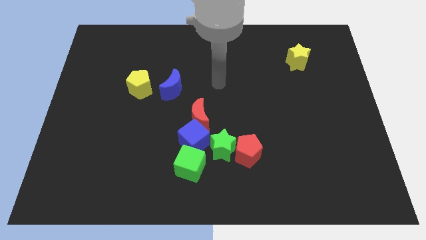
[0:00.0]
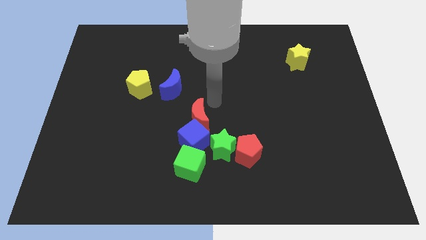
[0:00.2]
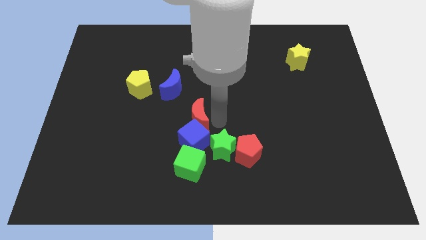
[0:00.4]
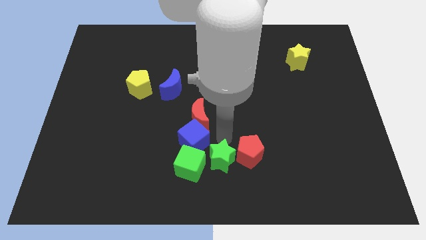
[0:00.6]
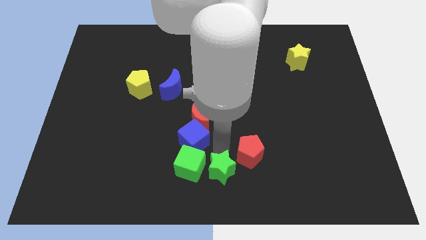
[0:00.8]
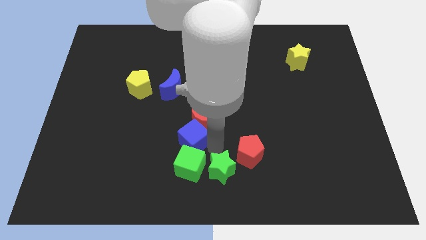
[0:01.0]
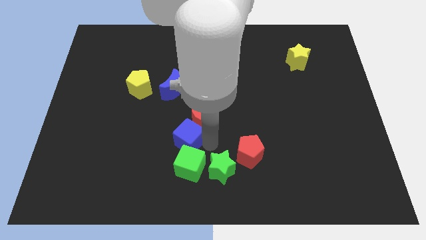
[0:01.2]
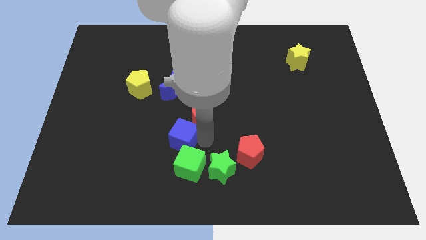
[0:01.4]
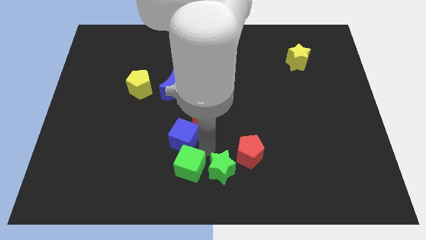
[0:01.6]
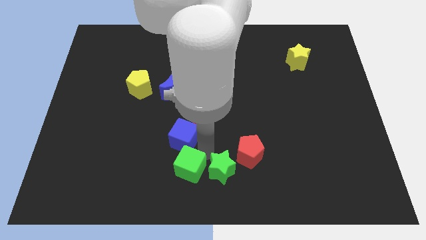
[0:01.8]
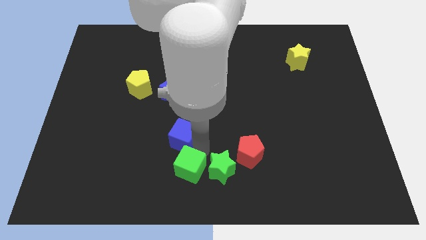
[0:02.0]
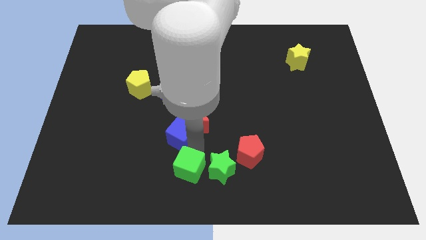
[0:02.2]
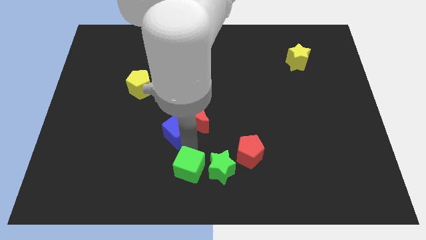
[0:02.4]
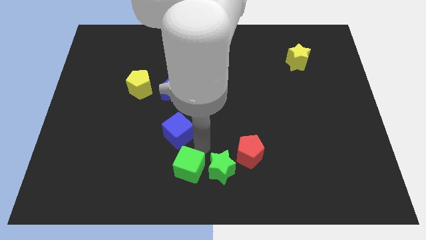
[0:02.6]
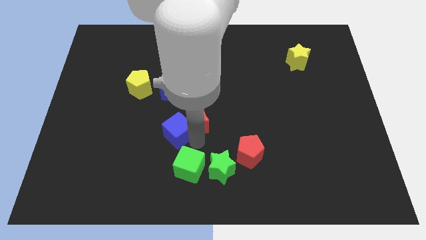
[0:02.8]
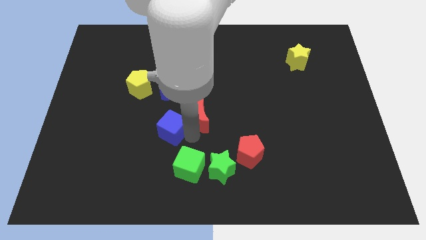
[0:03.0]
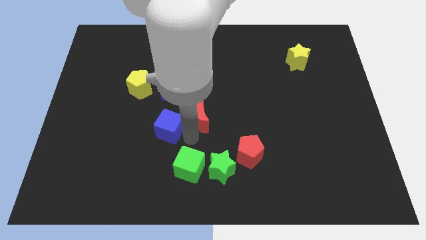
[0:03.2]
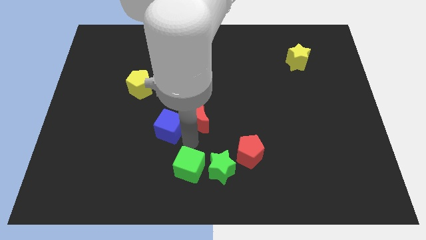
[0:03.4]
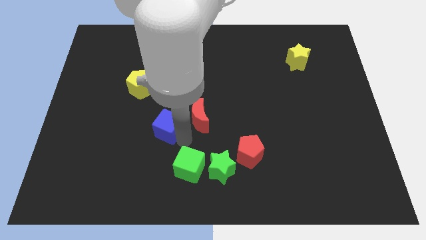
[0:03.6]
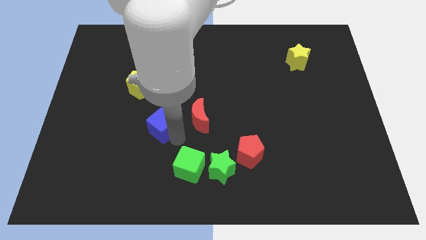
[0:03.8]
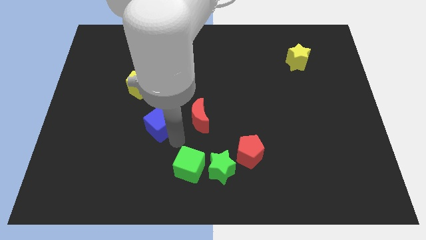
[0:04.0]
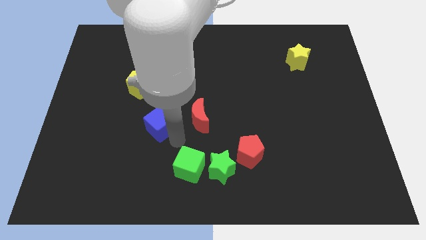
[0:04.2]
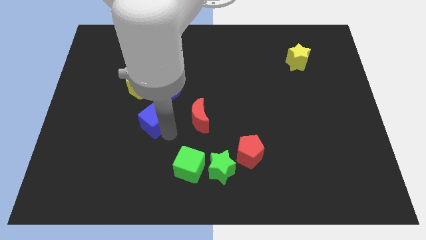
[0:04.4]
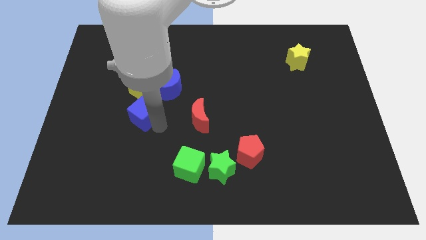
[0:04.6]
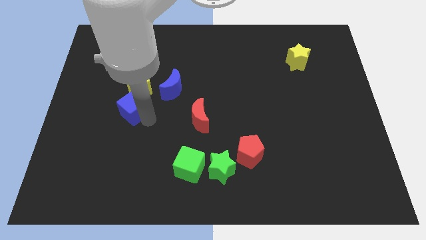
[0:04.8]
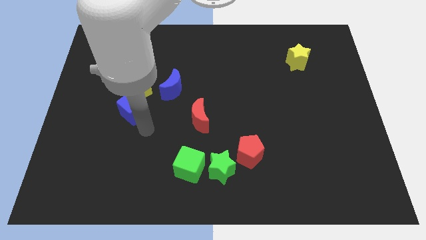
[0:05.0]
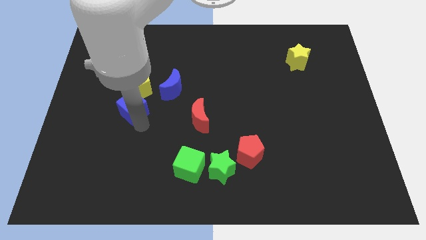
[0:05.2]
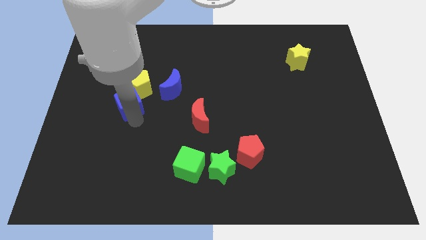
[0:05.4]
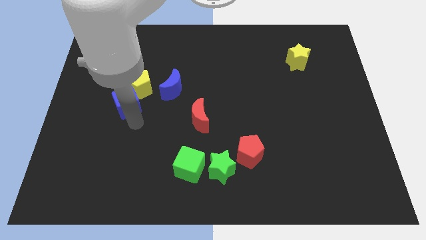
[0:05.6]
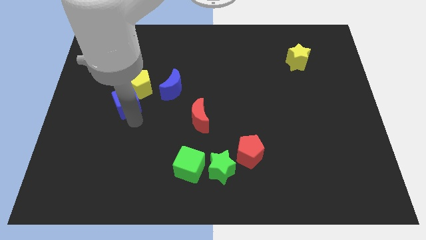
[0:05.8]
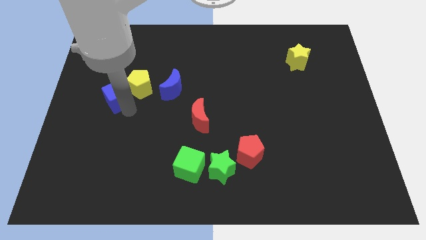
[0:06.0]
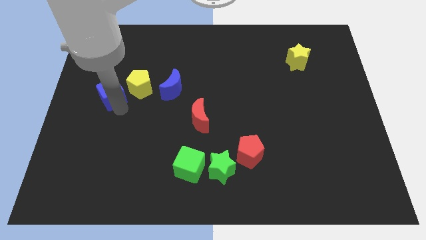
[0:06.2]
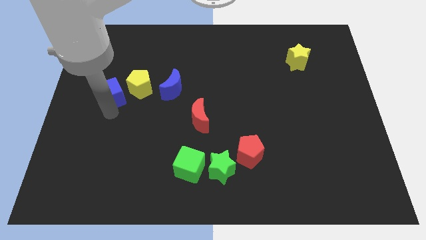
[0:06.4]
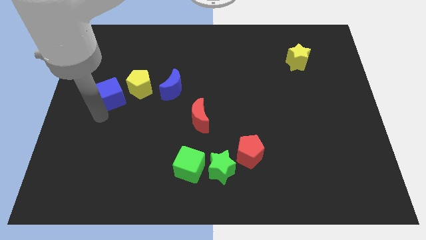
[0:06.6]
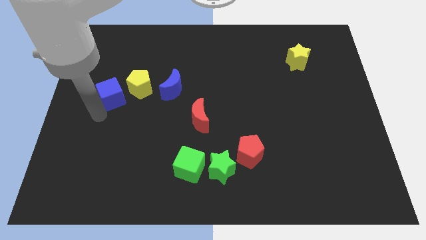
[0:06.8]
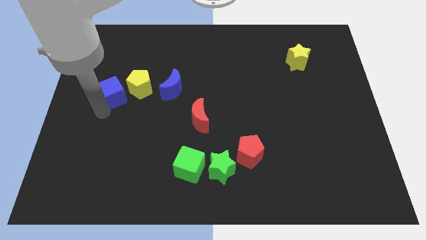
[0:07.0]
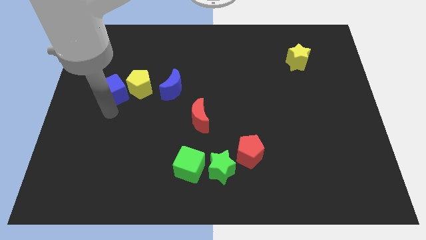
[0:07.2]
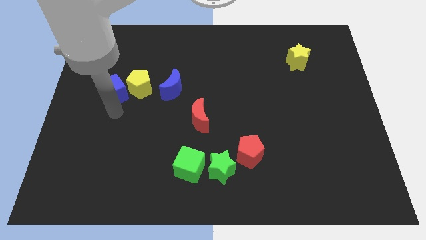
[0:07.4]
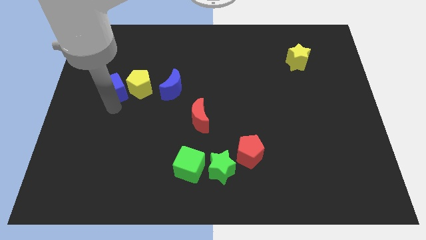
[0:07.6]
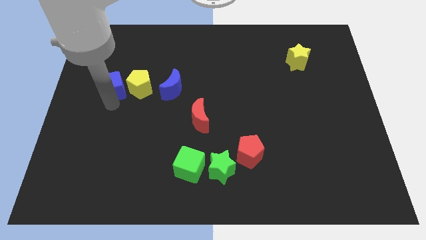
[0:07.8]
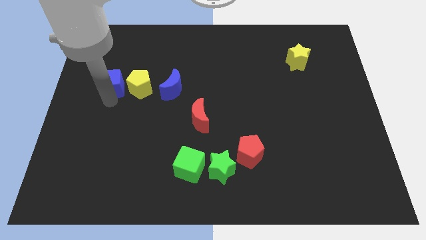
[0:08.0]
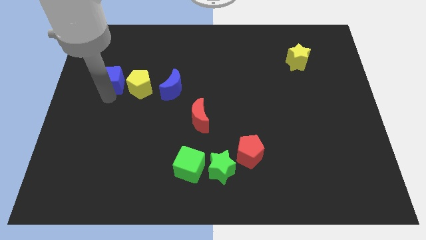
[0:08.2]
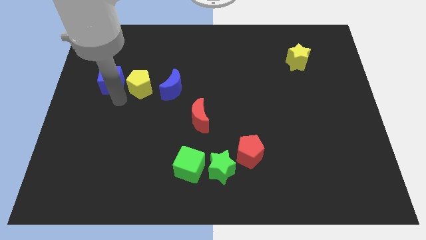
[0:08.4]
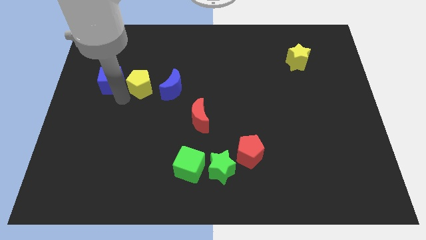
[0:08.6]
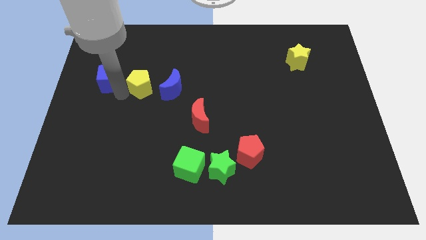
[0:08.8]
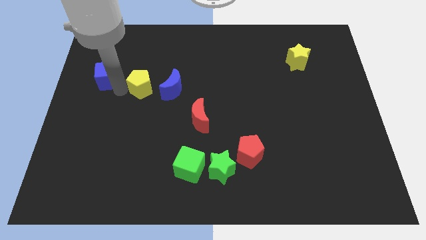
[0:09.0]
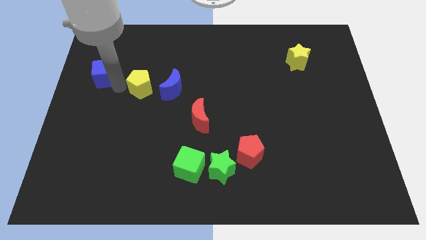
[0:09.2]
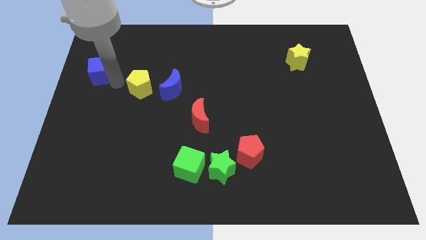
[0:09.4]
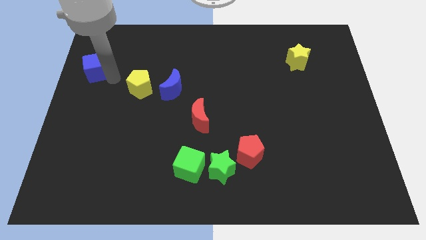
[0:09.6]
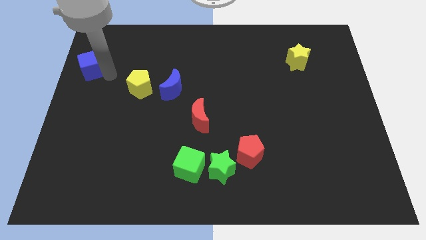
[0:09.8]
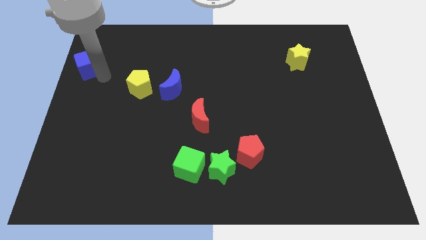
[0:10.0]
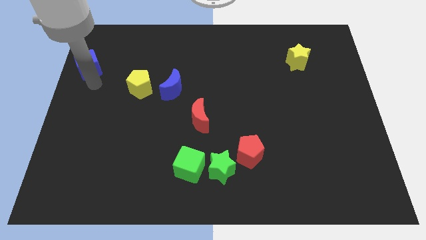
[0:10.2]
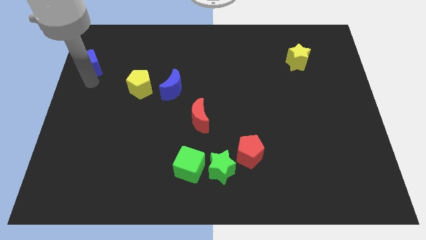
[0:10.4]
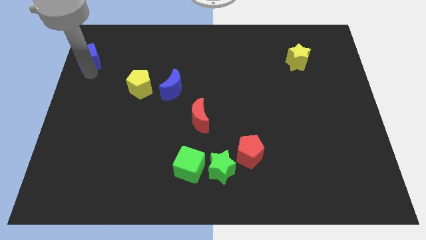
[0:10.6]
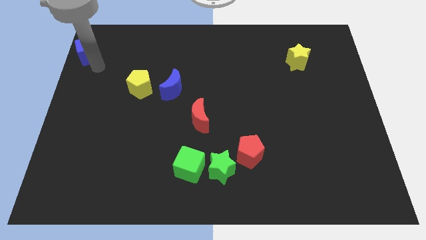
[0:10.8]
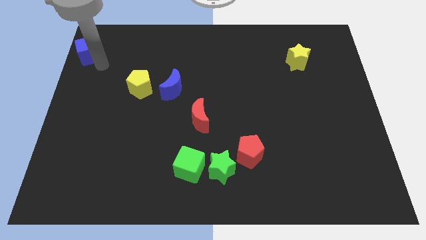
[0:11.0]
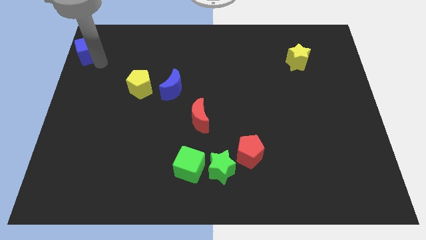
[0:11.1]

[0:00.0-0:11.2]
slide the blue cube to the top left of the board

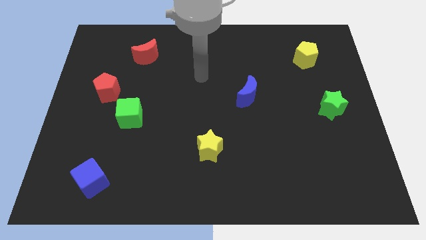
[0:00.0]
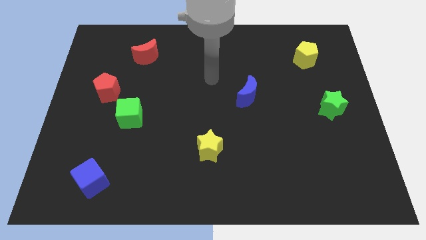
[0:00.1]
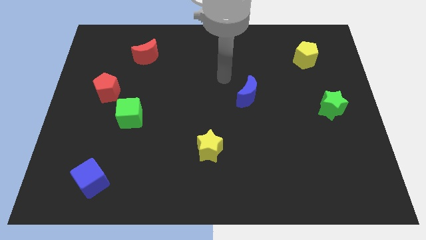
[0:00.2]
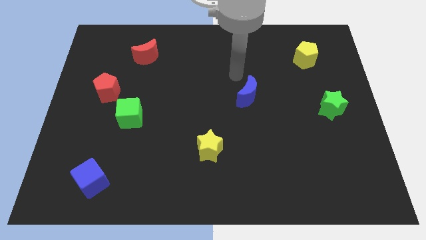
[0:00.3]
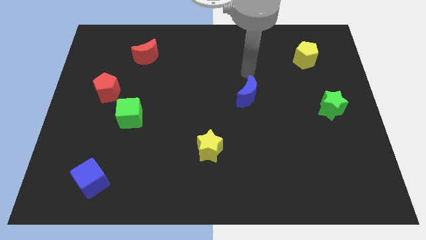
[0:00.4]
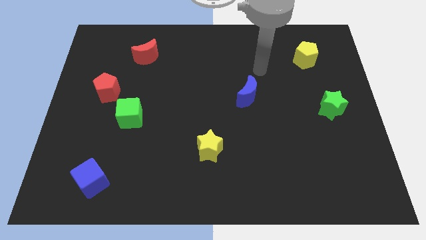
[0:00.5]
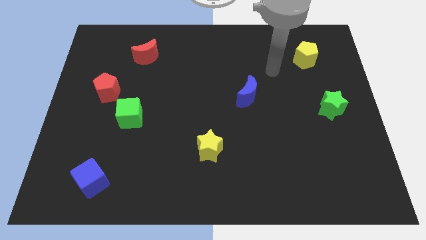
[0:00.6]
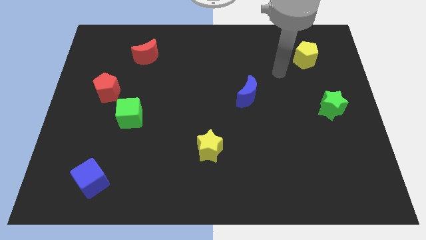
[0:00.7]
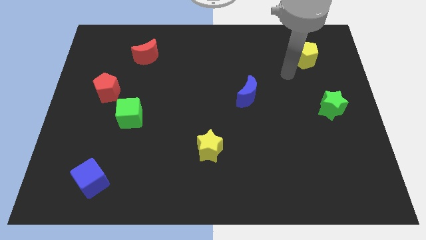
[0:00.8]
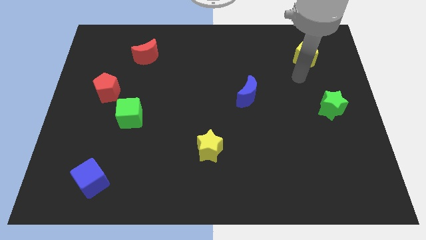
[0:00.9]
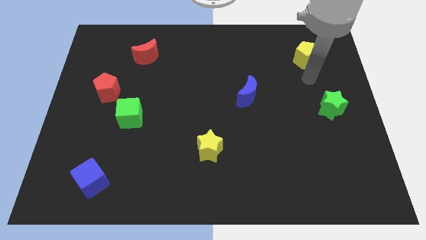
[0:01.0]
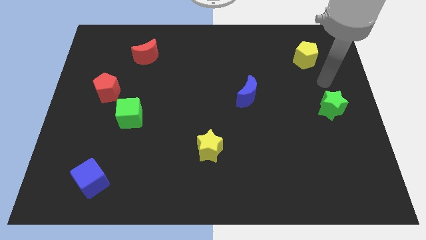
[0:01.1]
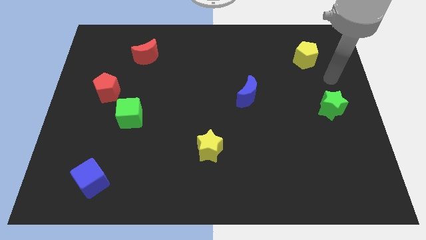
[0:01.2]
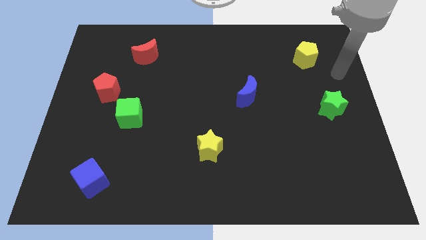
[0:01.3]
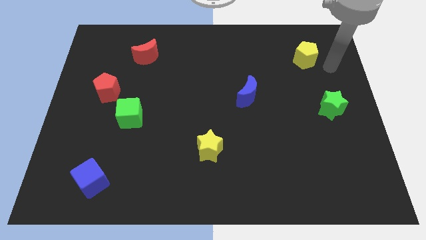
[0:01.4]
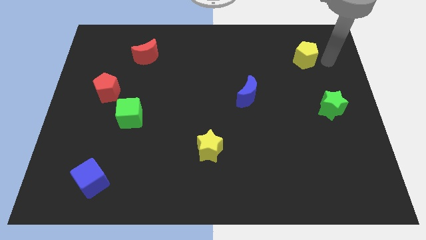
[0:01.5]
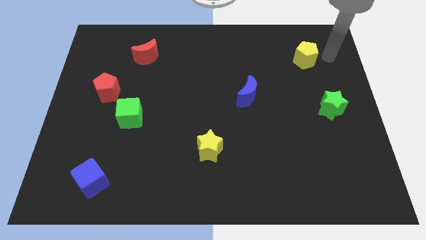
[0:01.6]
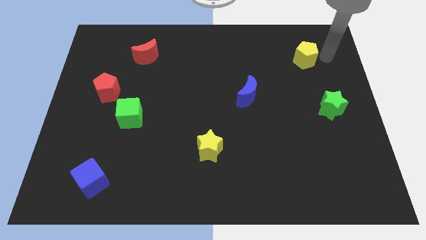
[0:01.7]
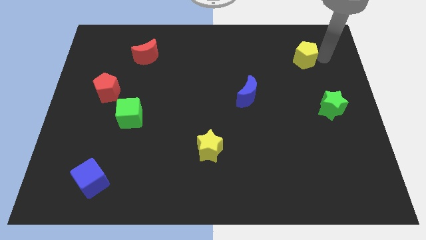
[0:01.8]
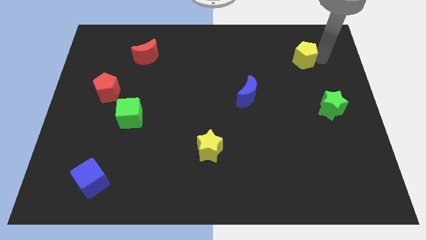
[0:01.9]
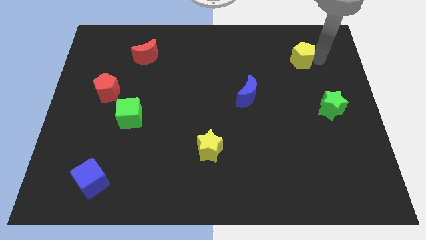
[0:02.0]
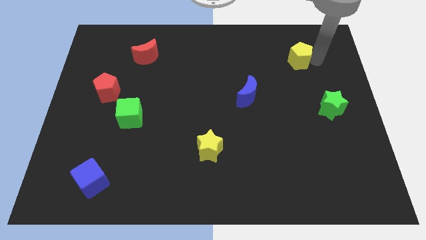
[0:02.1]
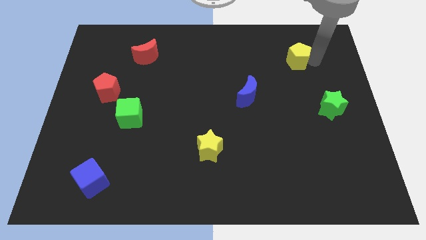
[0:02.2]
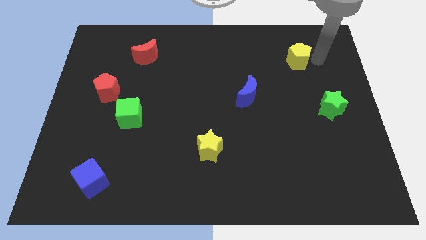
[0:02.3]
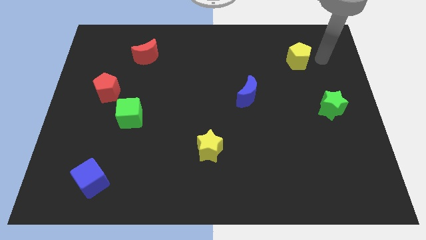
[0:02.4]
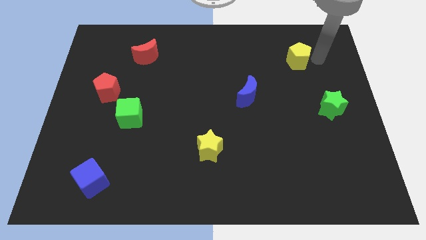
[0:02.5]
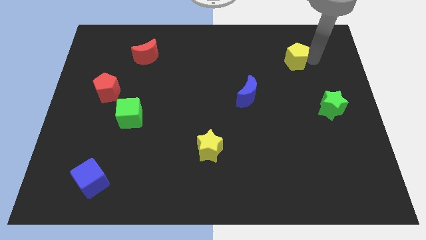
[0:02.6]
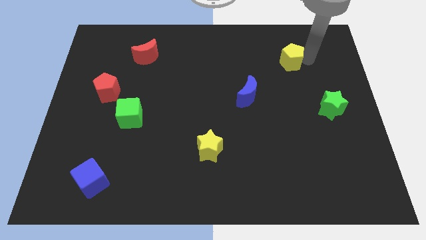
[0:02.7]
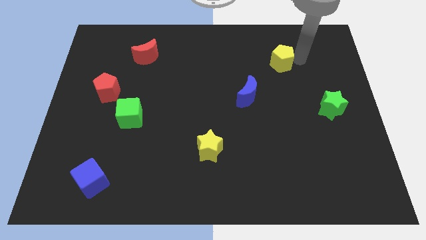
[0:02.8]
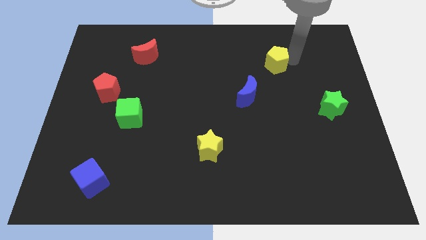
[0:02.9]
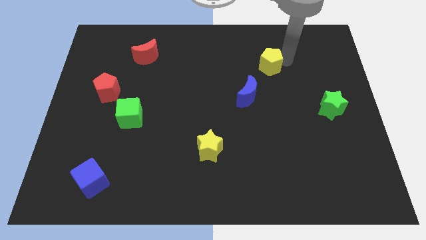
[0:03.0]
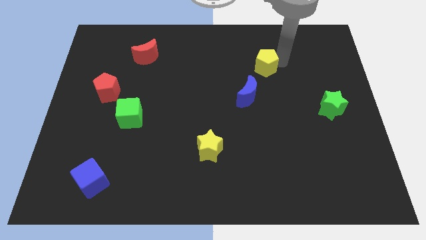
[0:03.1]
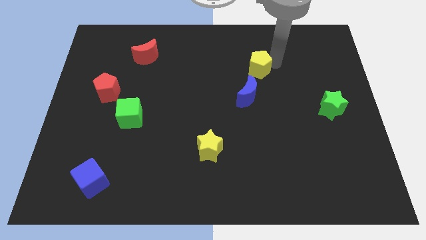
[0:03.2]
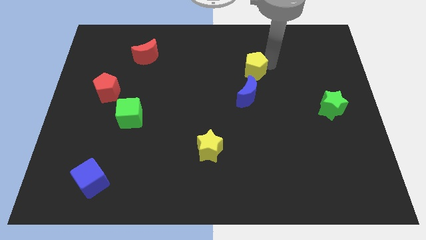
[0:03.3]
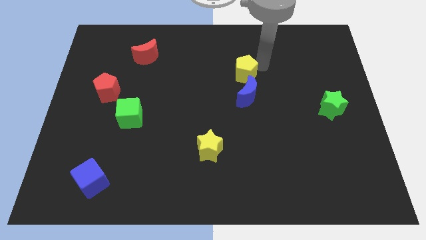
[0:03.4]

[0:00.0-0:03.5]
push the yellow pentagon to the center of the board
